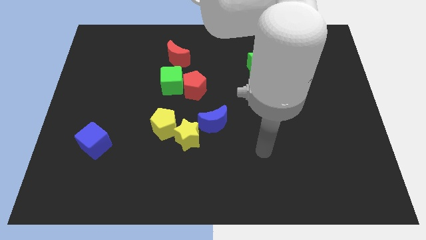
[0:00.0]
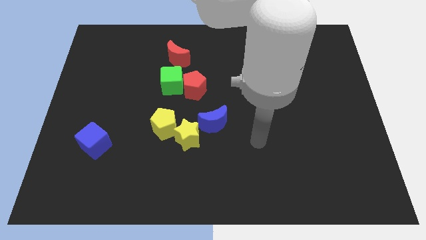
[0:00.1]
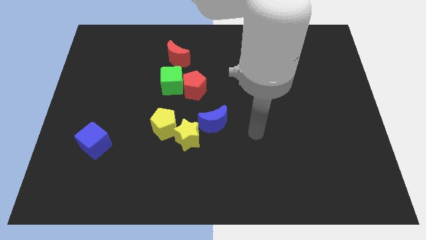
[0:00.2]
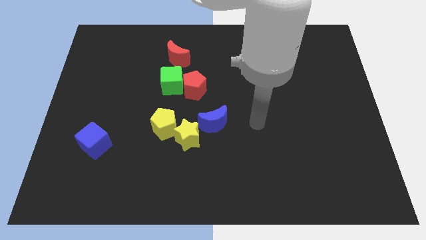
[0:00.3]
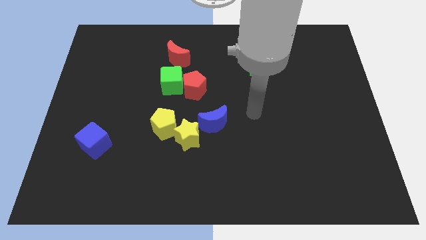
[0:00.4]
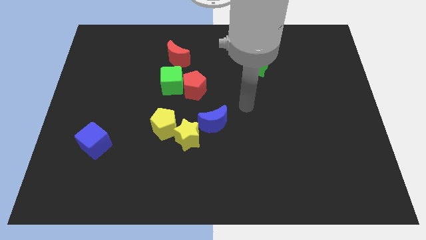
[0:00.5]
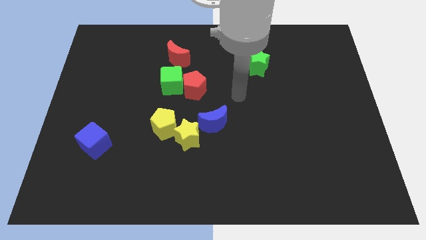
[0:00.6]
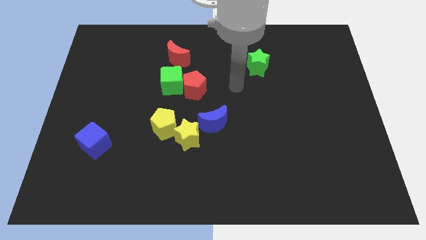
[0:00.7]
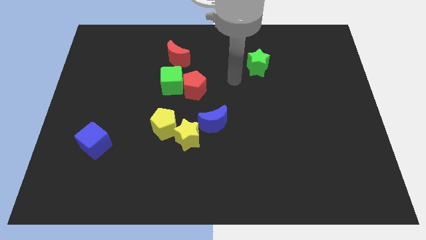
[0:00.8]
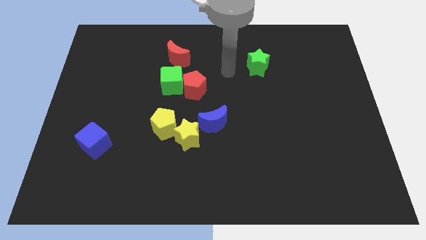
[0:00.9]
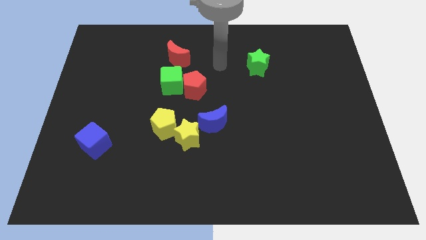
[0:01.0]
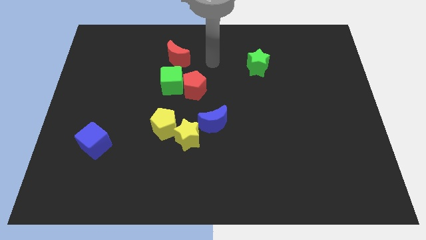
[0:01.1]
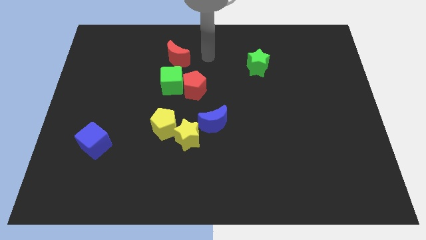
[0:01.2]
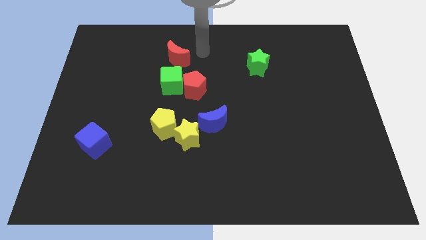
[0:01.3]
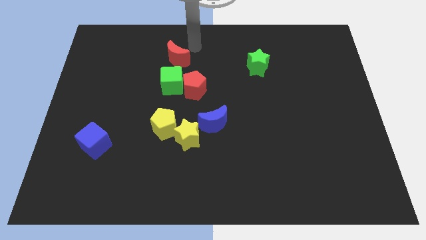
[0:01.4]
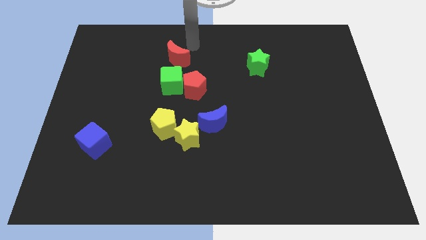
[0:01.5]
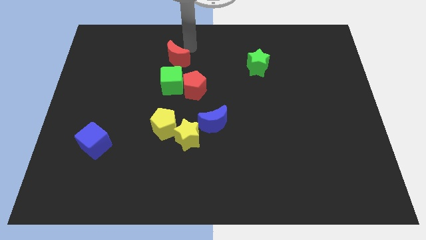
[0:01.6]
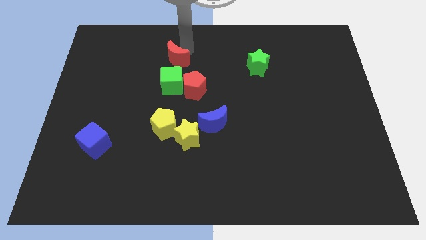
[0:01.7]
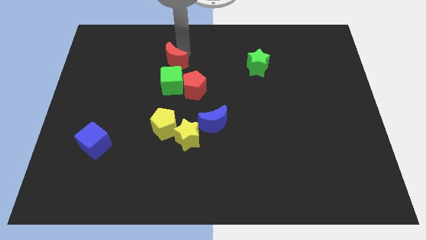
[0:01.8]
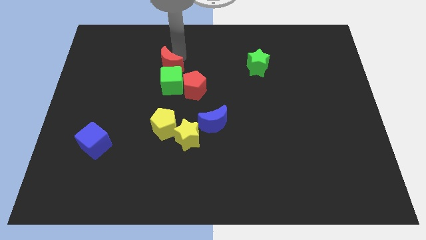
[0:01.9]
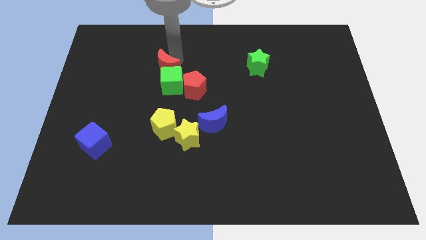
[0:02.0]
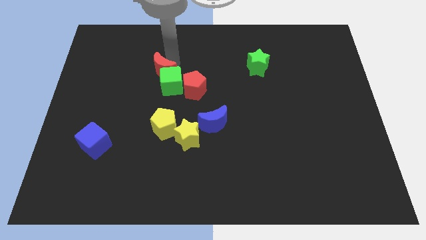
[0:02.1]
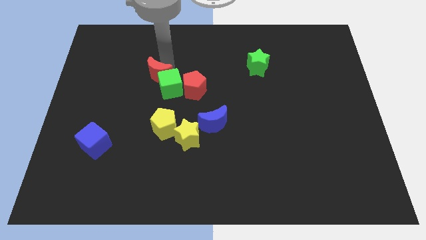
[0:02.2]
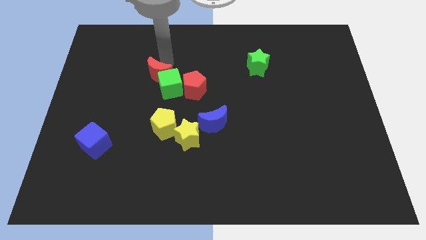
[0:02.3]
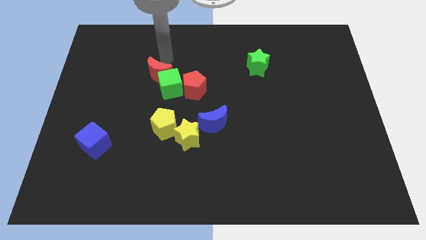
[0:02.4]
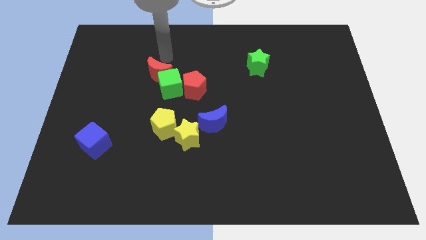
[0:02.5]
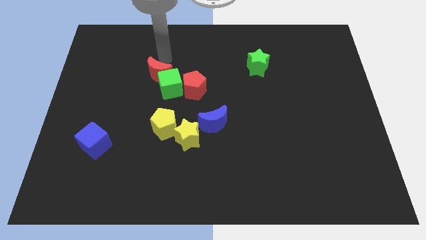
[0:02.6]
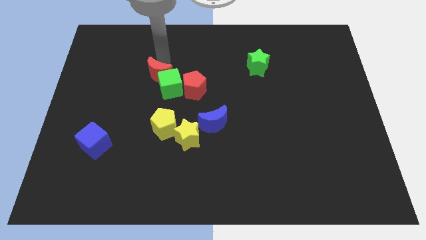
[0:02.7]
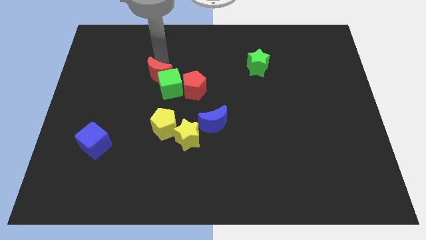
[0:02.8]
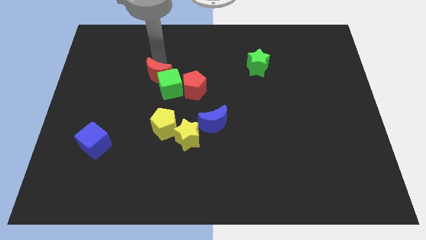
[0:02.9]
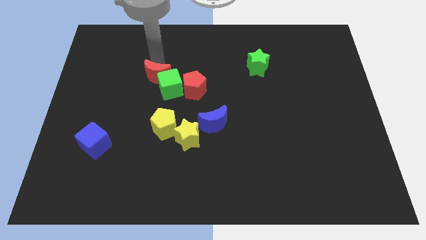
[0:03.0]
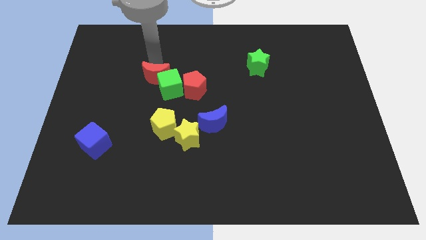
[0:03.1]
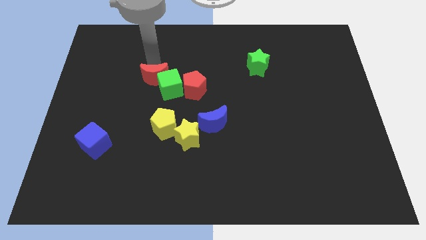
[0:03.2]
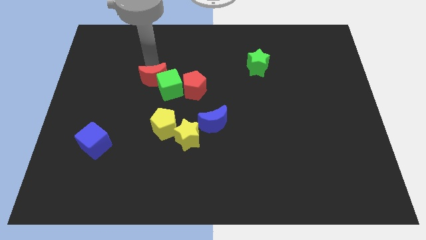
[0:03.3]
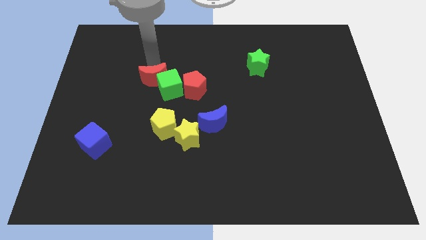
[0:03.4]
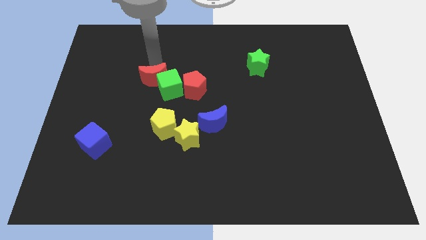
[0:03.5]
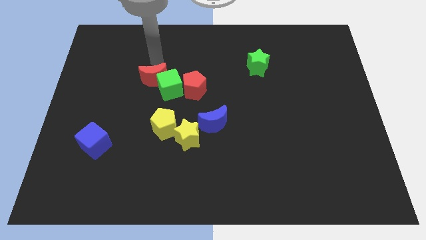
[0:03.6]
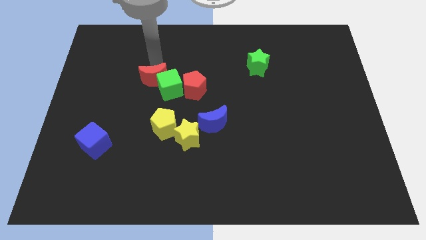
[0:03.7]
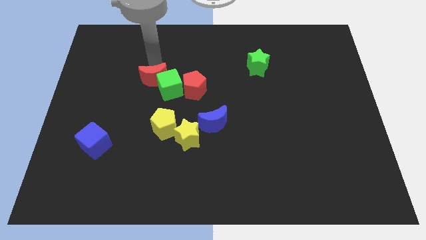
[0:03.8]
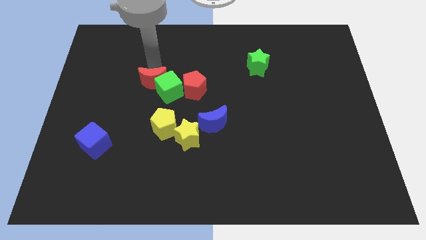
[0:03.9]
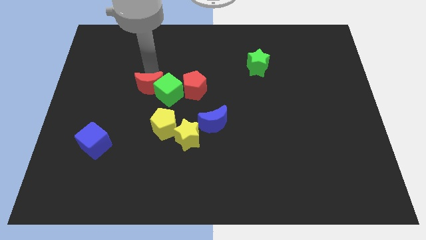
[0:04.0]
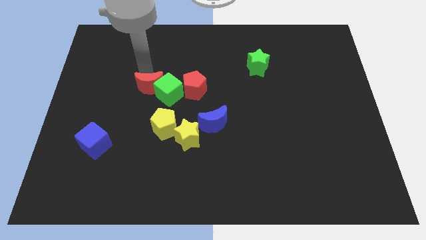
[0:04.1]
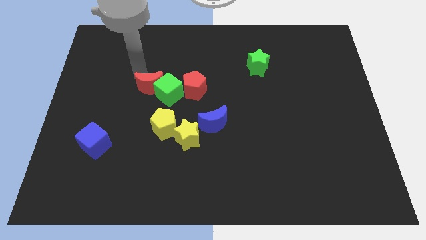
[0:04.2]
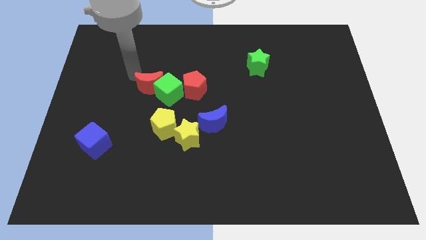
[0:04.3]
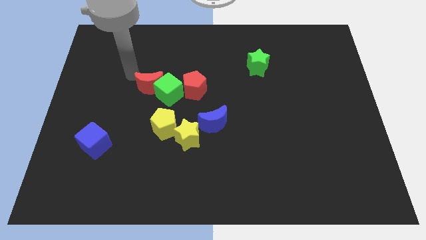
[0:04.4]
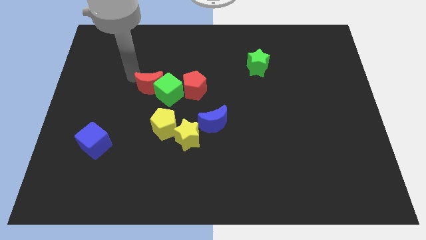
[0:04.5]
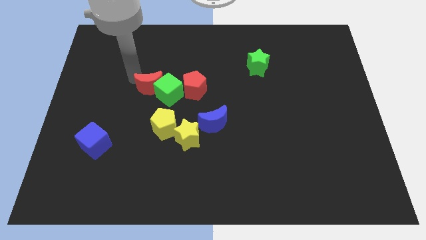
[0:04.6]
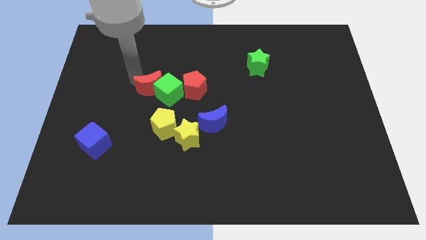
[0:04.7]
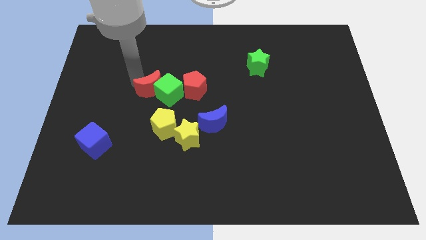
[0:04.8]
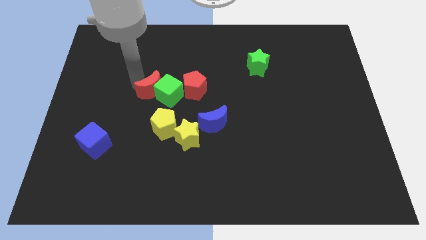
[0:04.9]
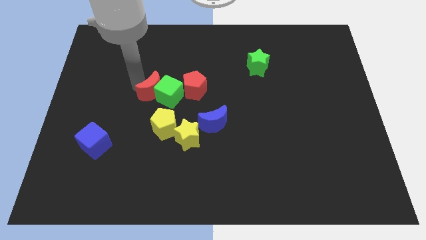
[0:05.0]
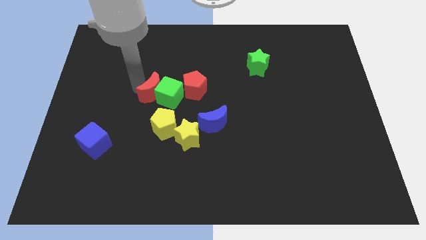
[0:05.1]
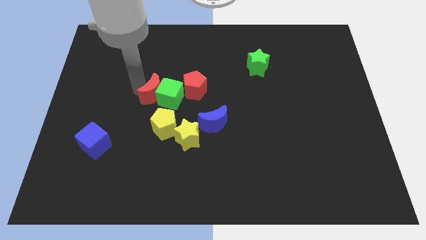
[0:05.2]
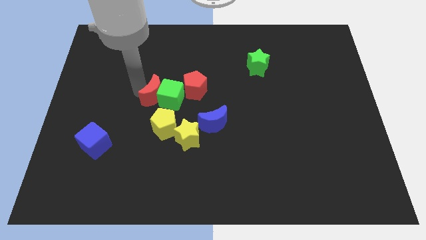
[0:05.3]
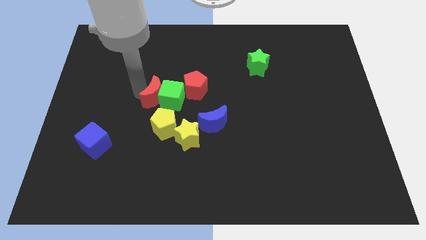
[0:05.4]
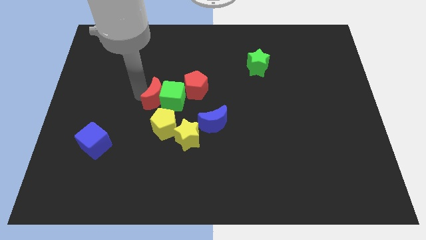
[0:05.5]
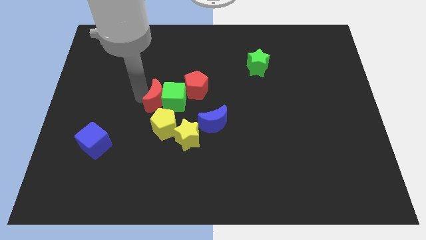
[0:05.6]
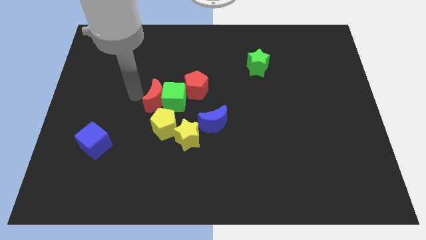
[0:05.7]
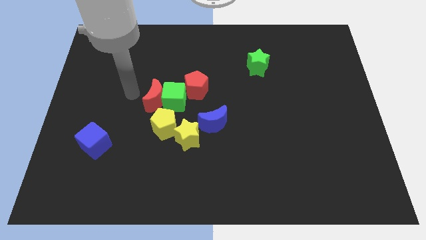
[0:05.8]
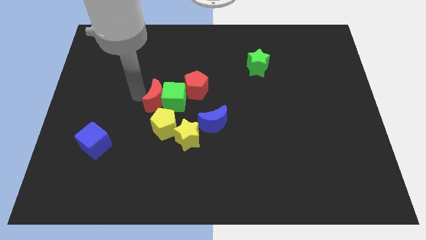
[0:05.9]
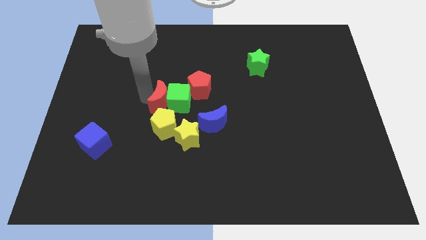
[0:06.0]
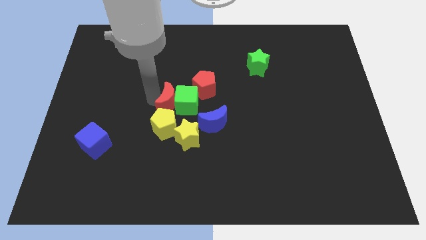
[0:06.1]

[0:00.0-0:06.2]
put the red moon diagonally up and to the right of the yellow pentagon

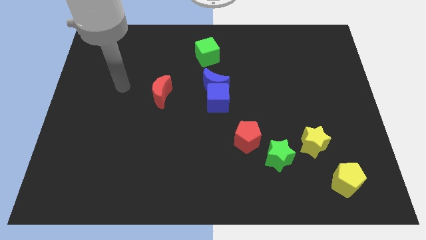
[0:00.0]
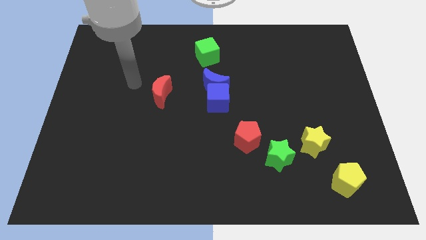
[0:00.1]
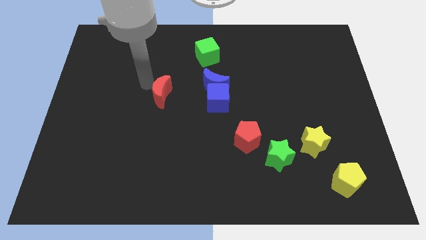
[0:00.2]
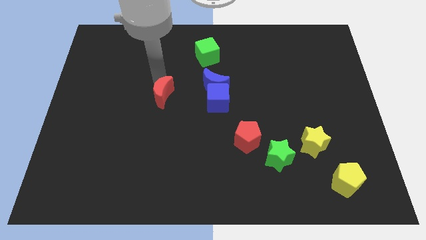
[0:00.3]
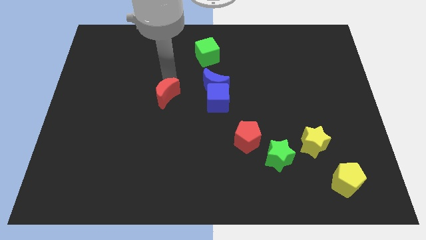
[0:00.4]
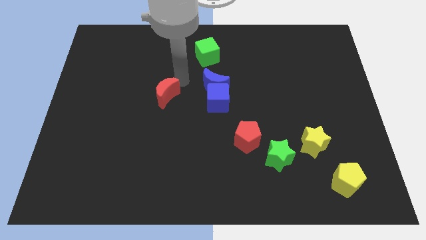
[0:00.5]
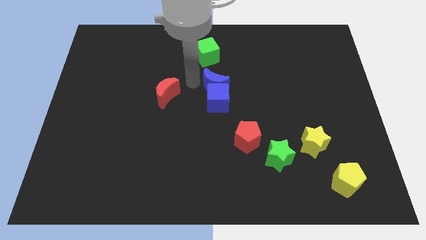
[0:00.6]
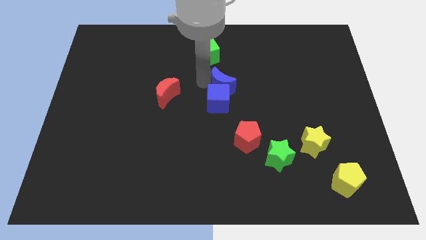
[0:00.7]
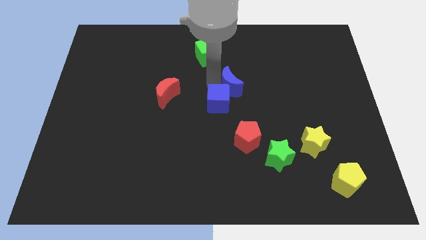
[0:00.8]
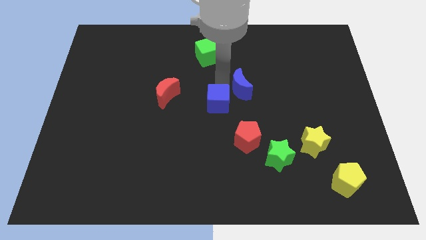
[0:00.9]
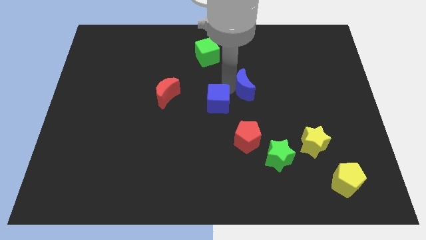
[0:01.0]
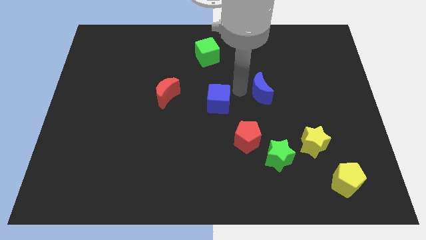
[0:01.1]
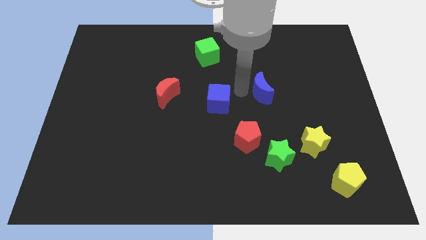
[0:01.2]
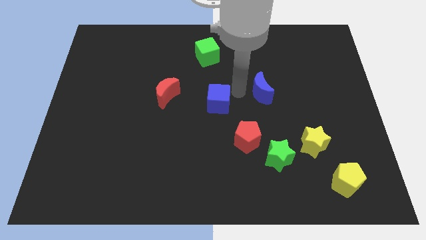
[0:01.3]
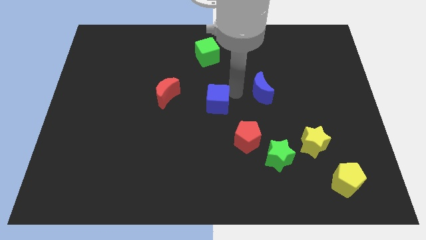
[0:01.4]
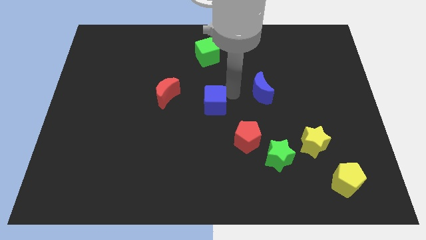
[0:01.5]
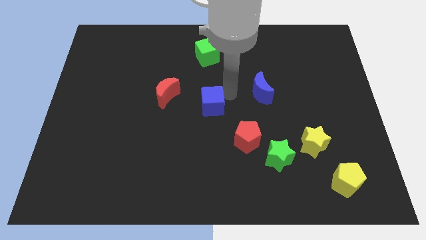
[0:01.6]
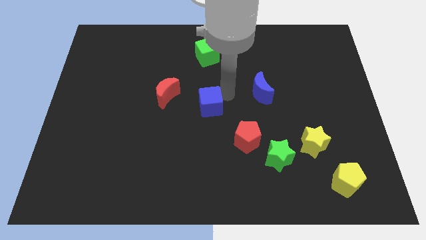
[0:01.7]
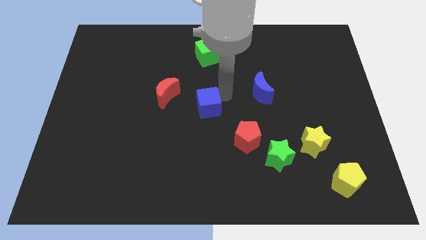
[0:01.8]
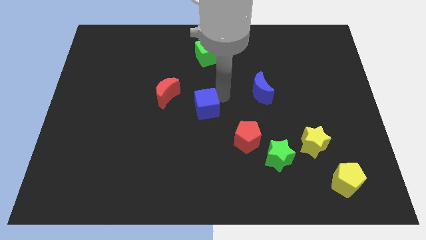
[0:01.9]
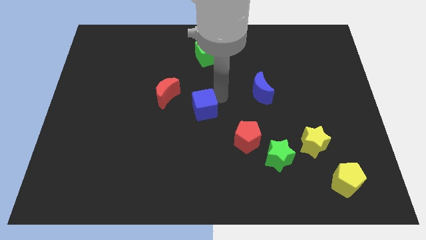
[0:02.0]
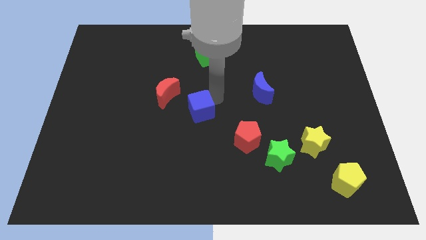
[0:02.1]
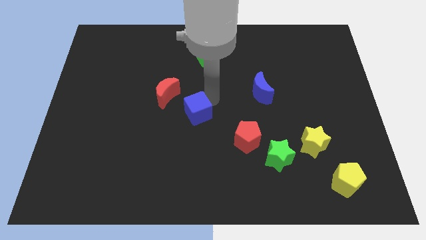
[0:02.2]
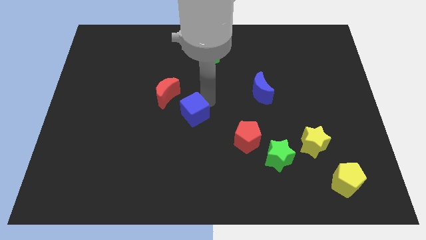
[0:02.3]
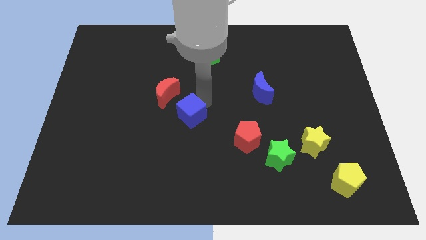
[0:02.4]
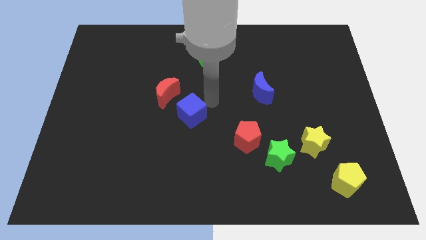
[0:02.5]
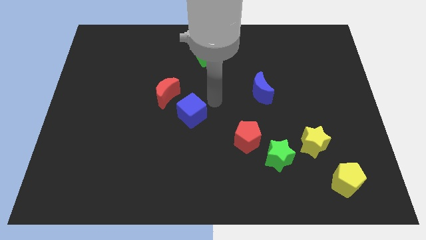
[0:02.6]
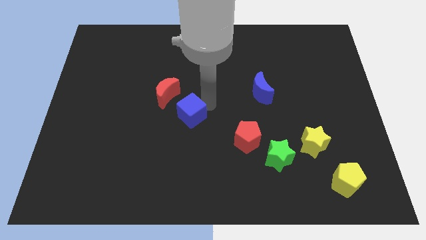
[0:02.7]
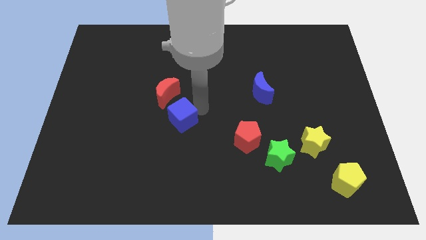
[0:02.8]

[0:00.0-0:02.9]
put the blue cube to the bottom side of the red moon
